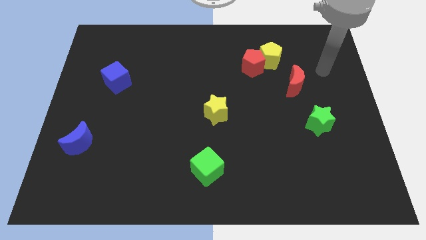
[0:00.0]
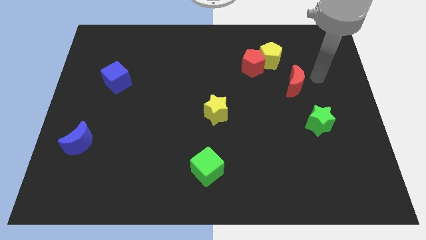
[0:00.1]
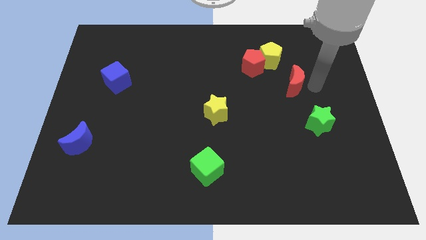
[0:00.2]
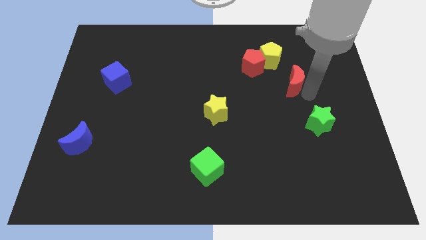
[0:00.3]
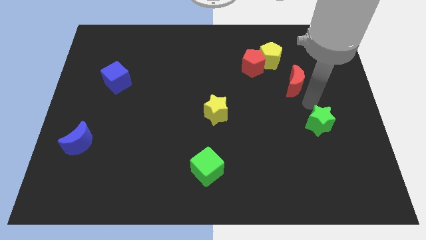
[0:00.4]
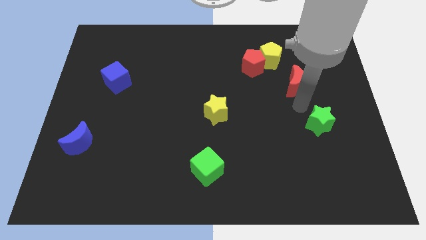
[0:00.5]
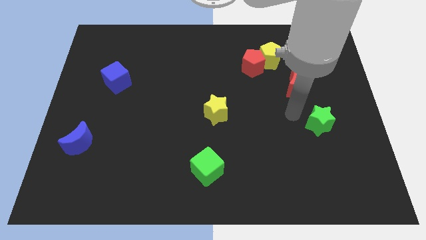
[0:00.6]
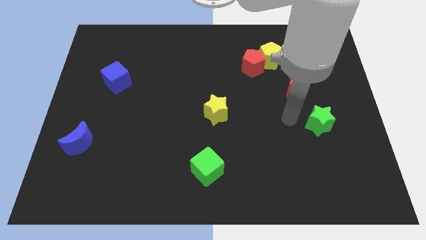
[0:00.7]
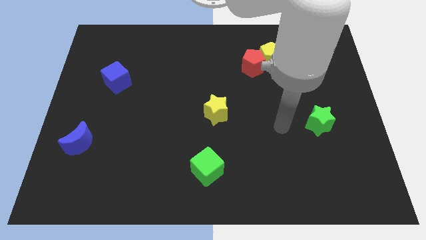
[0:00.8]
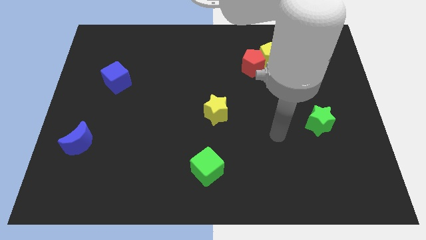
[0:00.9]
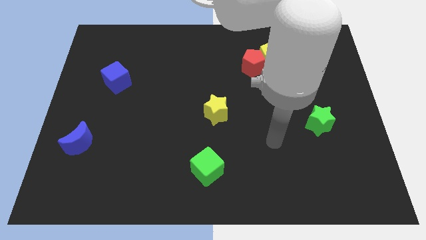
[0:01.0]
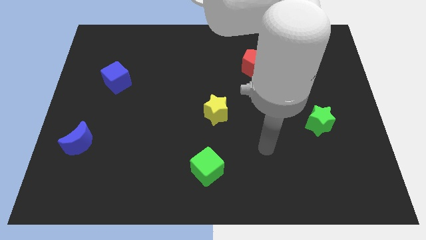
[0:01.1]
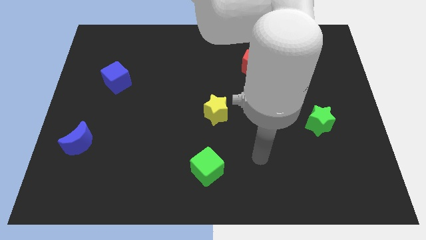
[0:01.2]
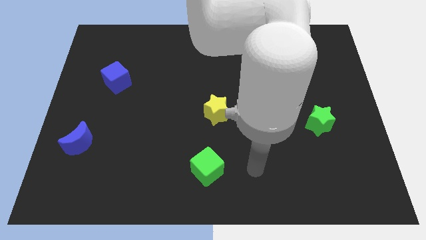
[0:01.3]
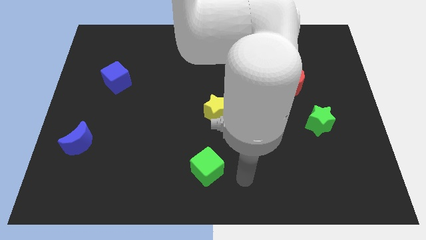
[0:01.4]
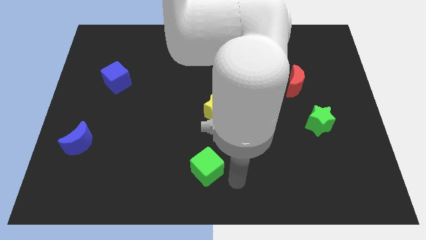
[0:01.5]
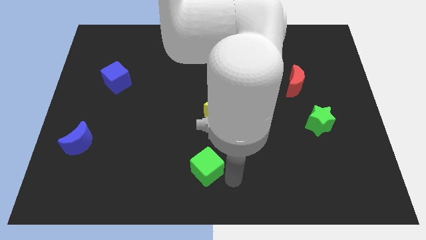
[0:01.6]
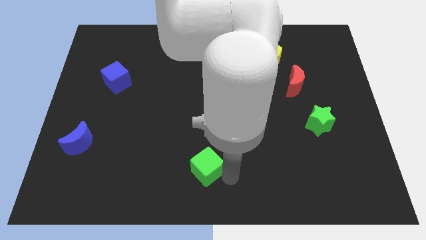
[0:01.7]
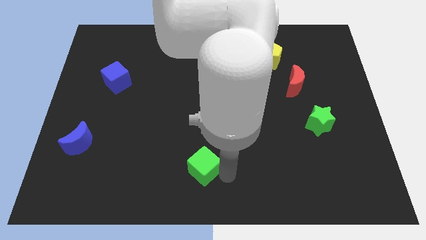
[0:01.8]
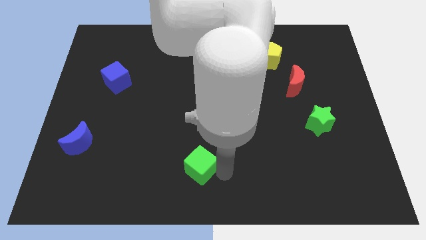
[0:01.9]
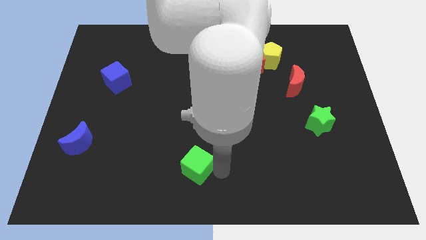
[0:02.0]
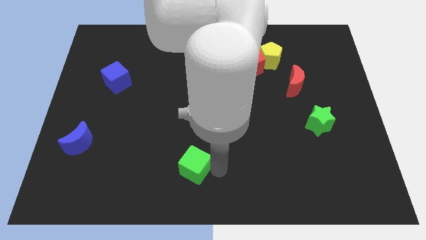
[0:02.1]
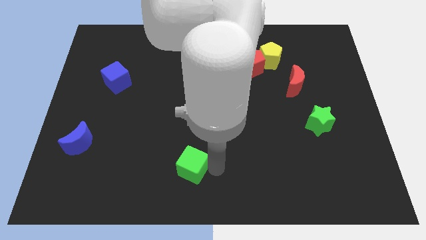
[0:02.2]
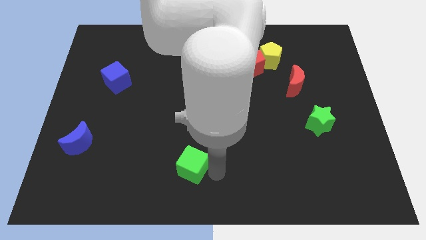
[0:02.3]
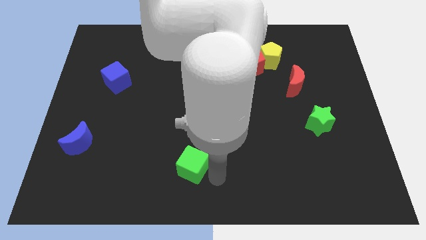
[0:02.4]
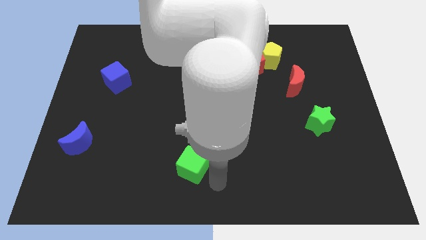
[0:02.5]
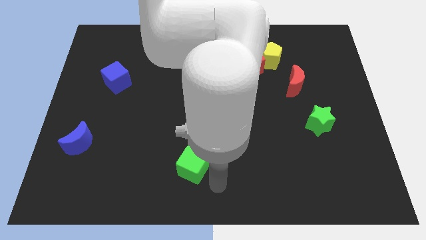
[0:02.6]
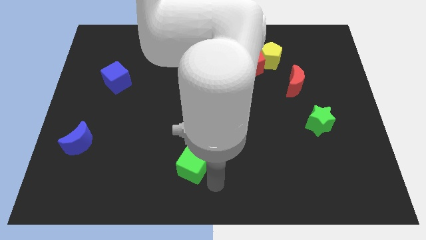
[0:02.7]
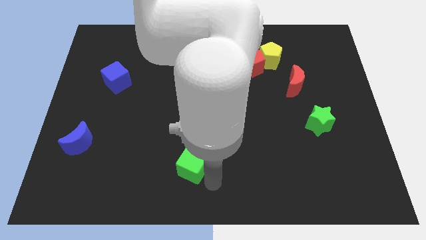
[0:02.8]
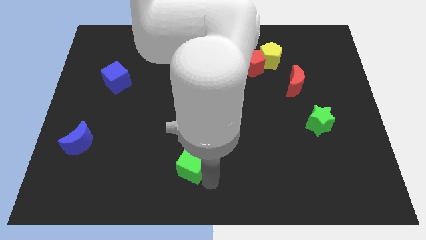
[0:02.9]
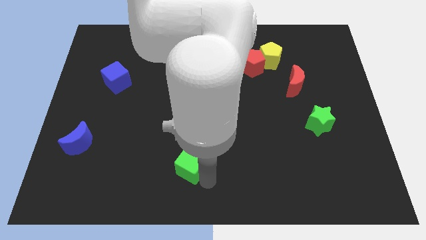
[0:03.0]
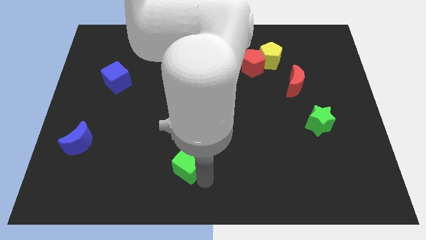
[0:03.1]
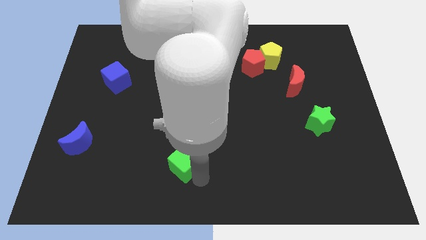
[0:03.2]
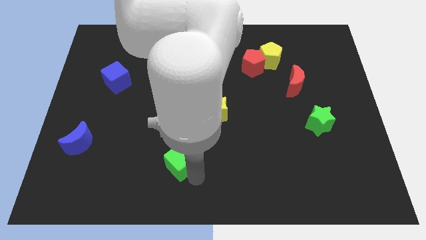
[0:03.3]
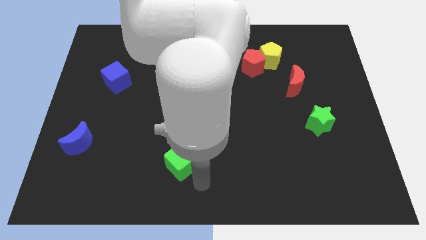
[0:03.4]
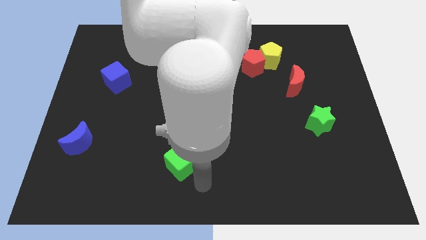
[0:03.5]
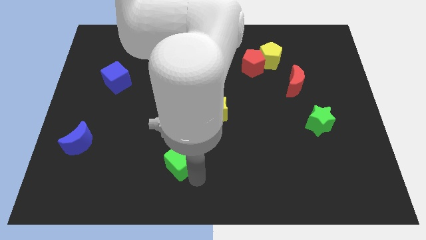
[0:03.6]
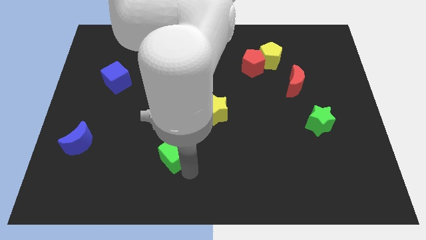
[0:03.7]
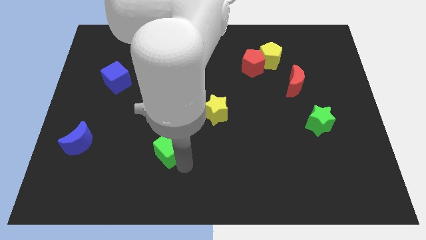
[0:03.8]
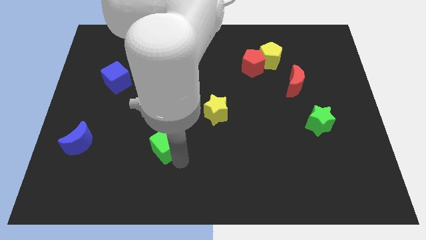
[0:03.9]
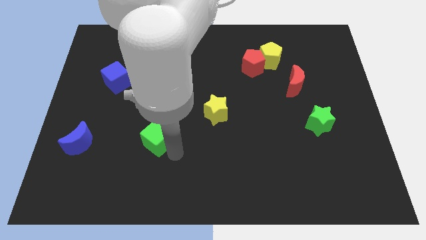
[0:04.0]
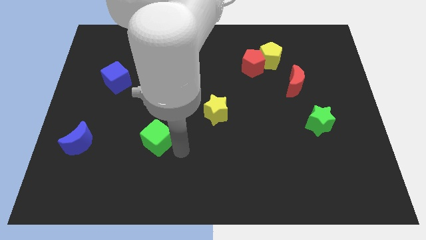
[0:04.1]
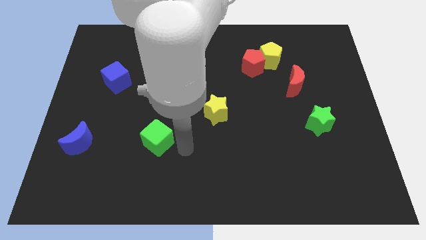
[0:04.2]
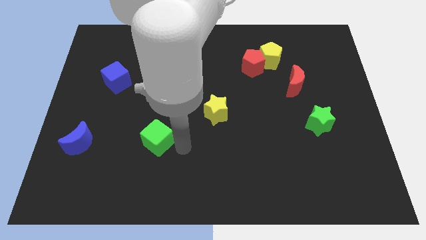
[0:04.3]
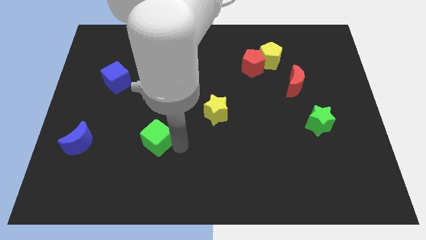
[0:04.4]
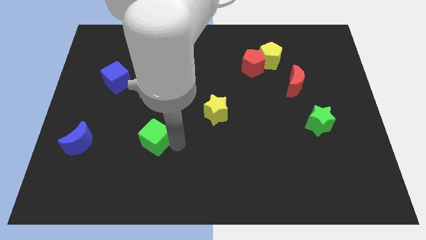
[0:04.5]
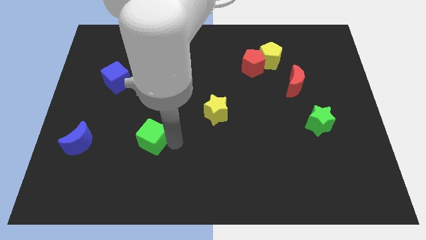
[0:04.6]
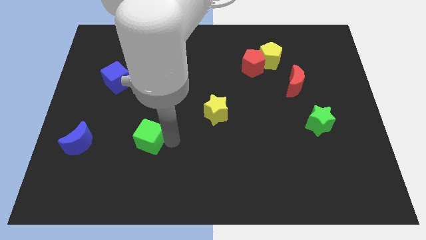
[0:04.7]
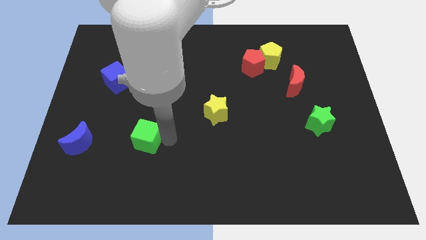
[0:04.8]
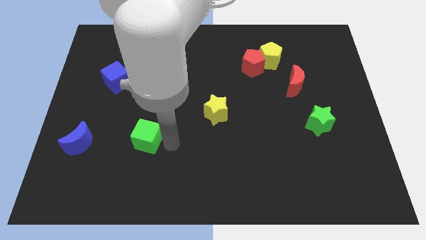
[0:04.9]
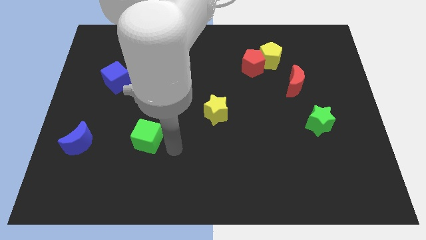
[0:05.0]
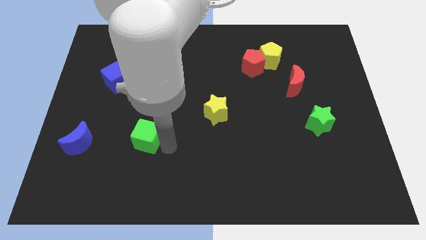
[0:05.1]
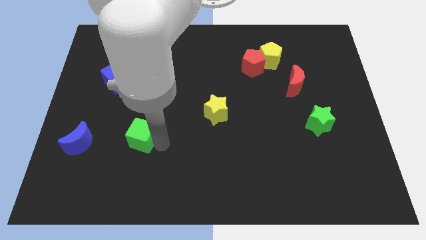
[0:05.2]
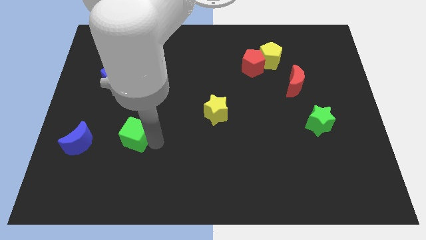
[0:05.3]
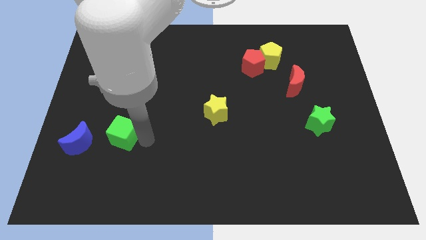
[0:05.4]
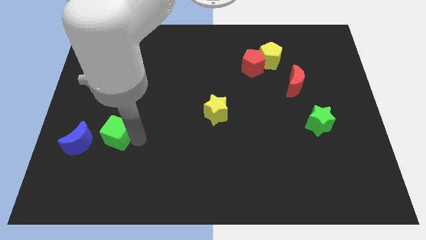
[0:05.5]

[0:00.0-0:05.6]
put the green cube to the top right side of the blue moon

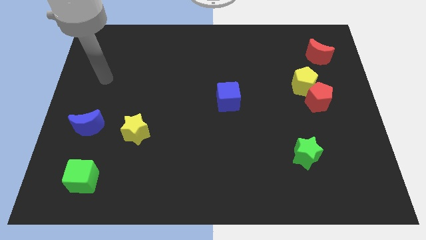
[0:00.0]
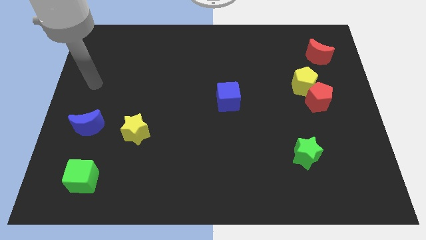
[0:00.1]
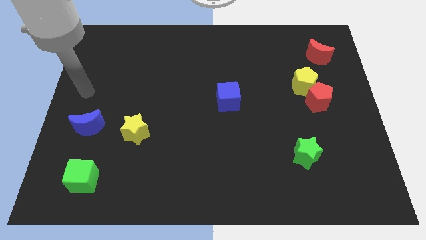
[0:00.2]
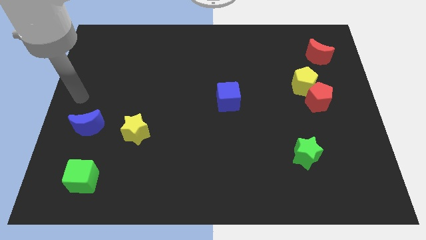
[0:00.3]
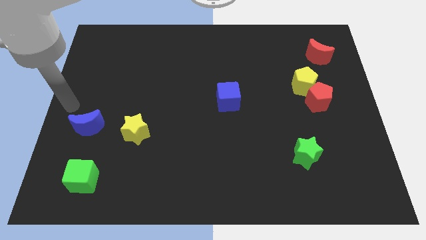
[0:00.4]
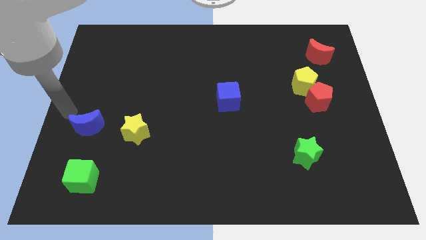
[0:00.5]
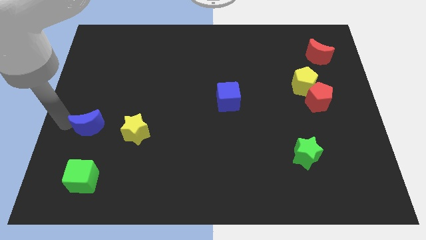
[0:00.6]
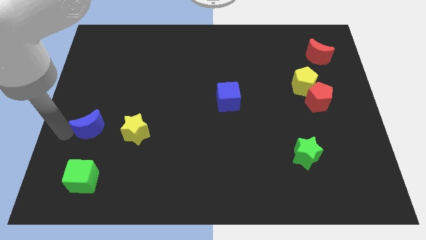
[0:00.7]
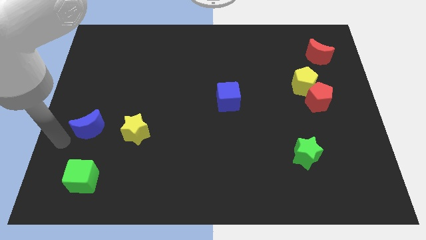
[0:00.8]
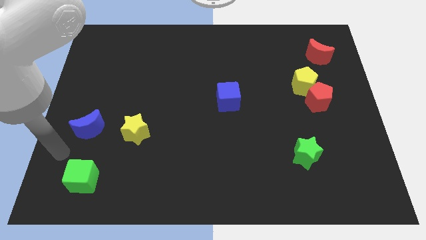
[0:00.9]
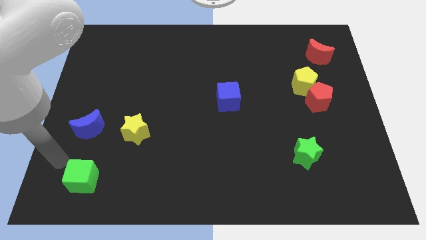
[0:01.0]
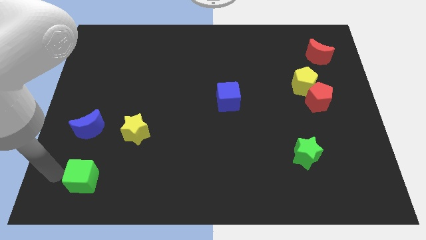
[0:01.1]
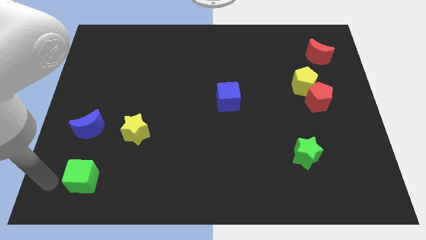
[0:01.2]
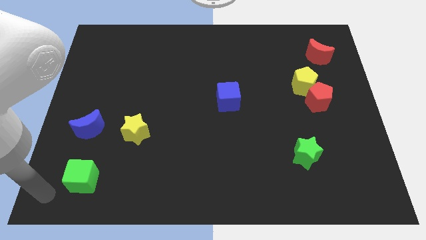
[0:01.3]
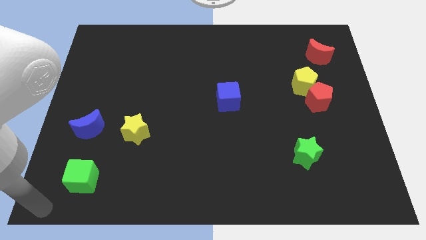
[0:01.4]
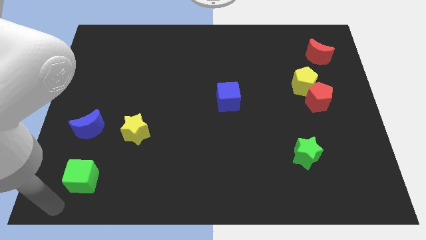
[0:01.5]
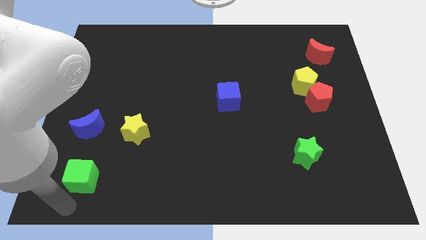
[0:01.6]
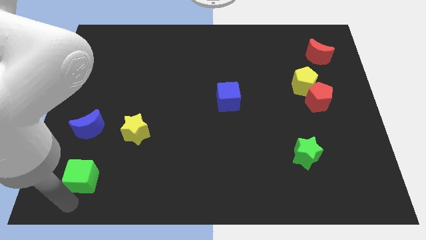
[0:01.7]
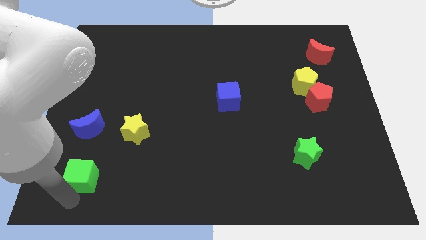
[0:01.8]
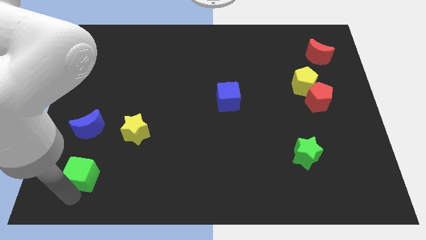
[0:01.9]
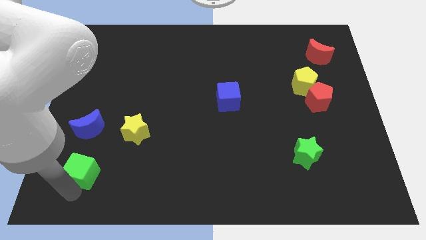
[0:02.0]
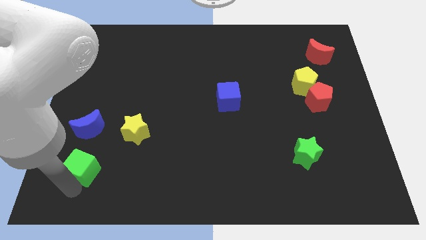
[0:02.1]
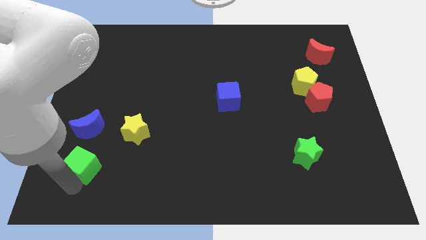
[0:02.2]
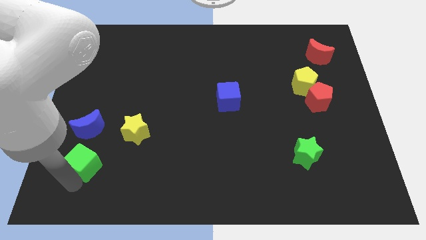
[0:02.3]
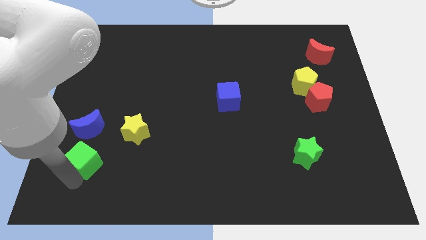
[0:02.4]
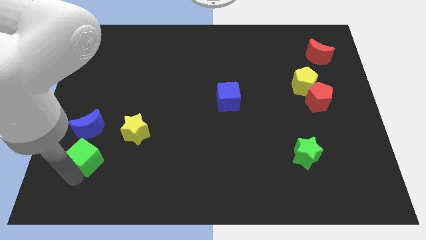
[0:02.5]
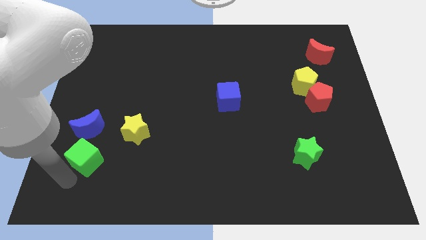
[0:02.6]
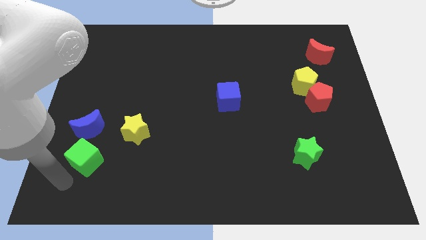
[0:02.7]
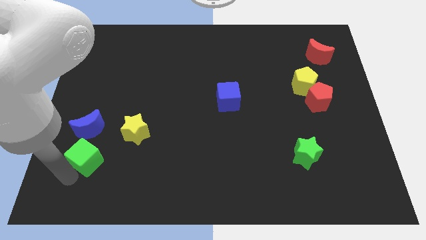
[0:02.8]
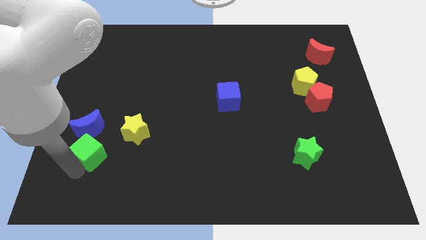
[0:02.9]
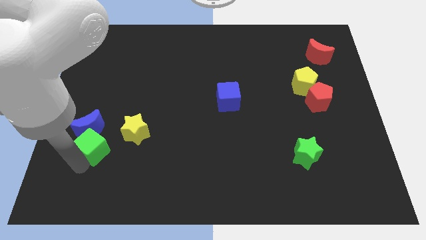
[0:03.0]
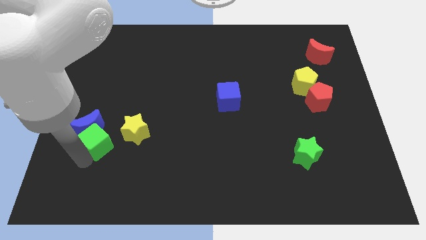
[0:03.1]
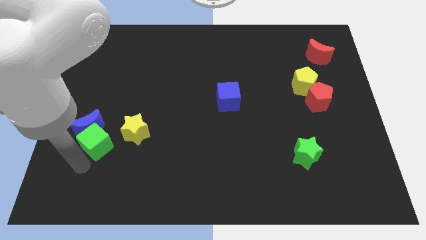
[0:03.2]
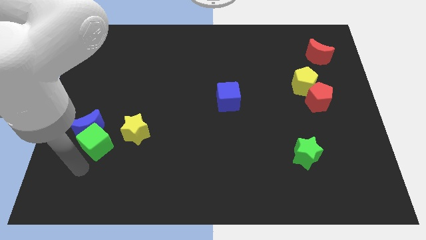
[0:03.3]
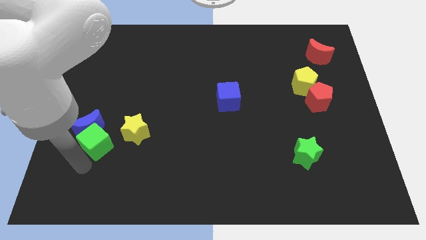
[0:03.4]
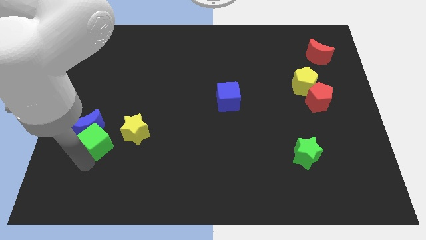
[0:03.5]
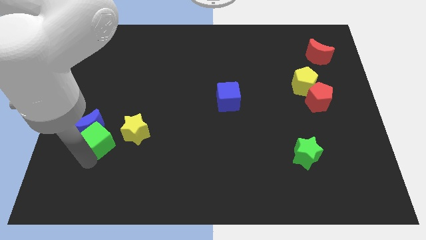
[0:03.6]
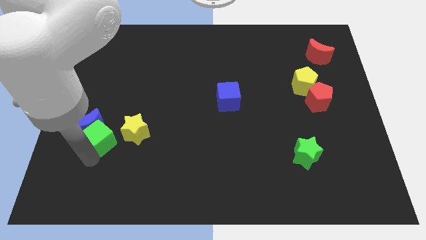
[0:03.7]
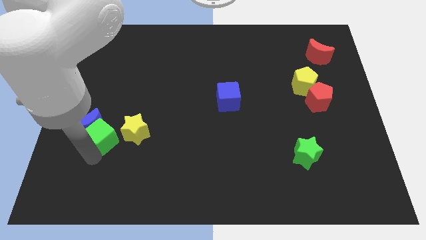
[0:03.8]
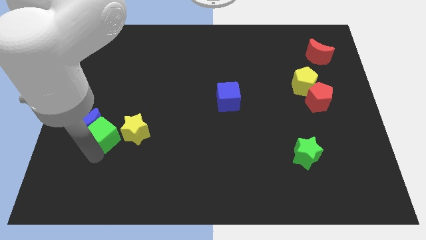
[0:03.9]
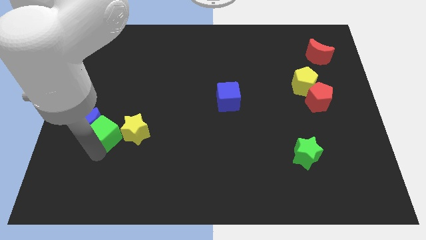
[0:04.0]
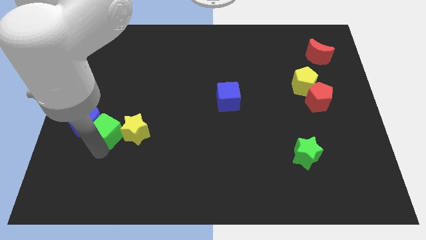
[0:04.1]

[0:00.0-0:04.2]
slide the green cube to the top left of the yellow star
